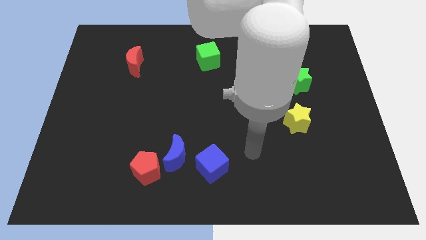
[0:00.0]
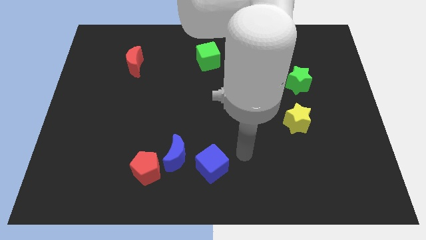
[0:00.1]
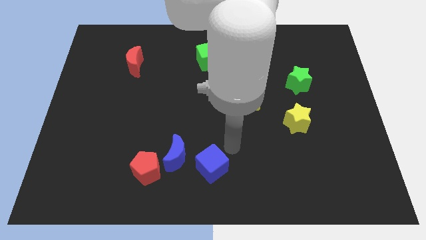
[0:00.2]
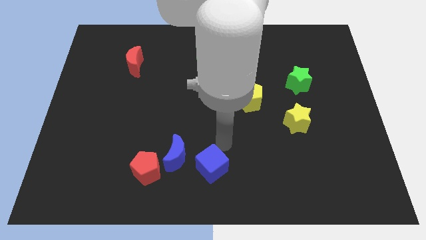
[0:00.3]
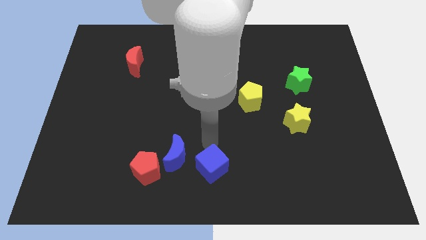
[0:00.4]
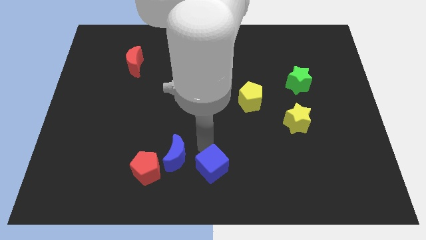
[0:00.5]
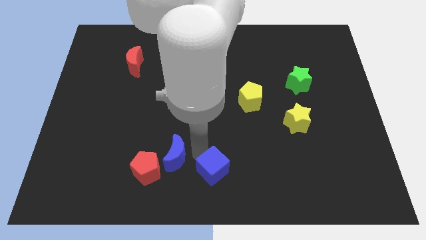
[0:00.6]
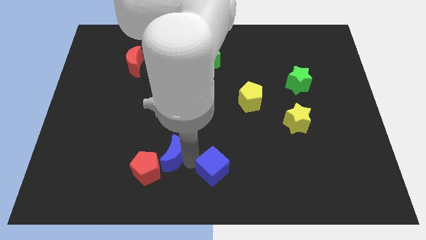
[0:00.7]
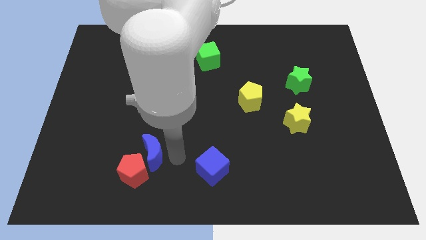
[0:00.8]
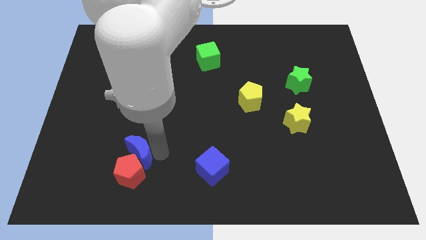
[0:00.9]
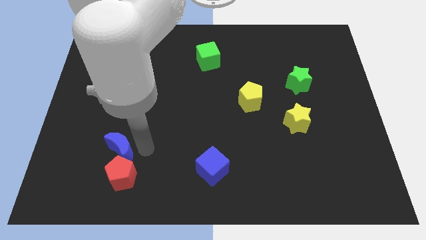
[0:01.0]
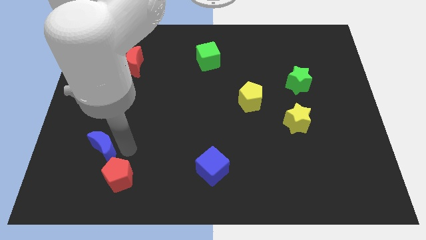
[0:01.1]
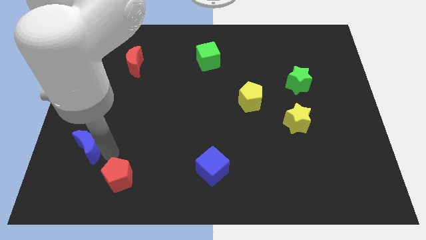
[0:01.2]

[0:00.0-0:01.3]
separate the red pentagon from the blue moon

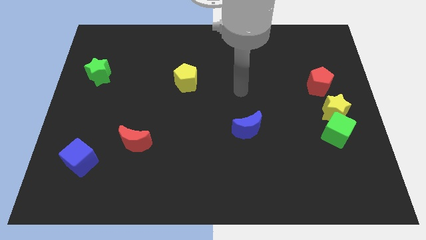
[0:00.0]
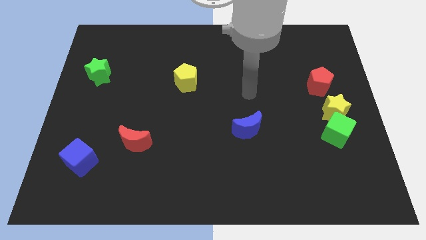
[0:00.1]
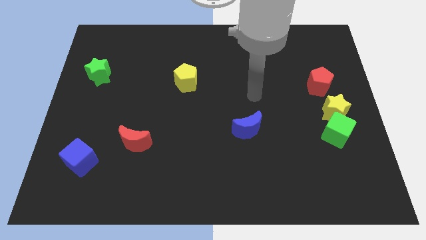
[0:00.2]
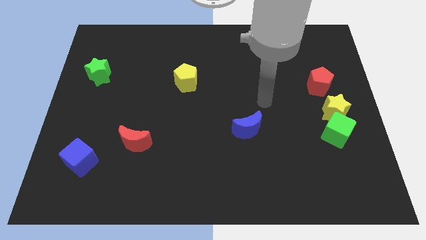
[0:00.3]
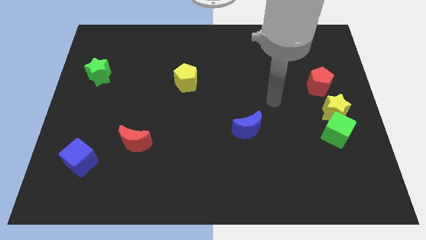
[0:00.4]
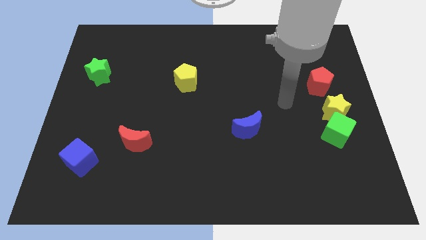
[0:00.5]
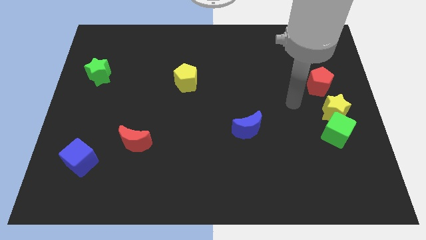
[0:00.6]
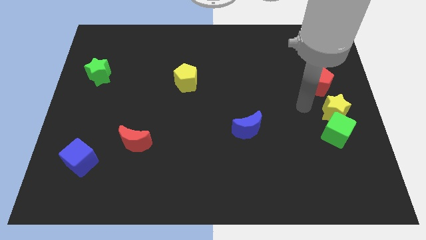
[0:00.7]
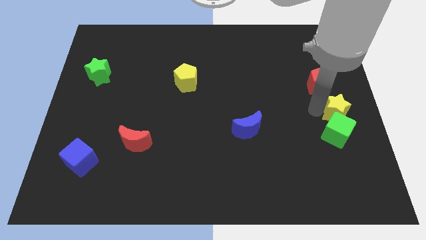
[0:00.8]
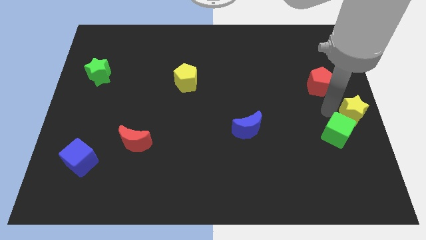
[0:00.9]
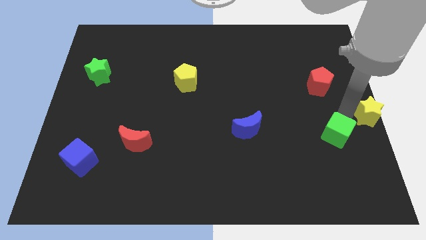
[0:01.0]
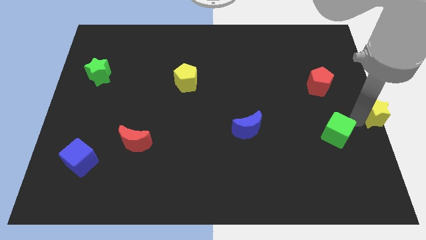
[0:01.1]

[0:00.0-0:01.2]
move the green cube away from the yellow star

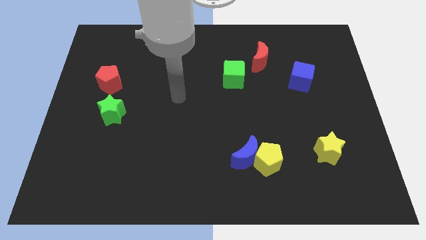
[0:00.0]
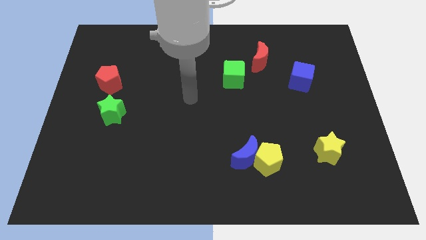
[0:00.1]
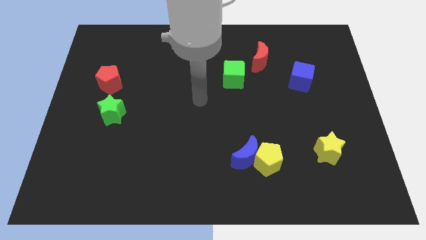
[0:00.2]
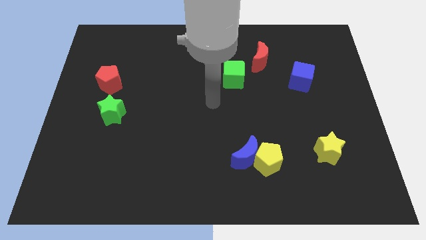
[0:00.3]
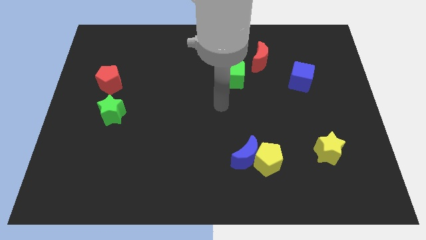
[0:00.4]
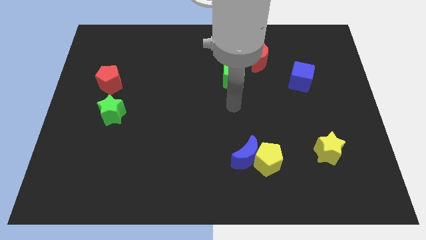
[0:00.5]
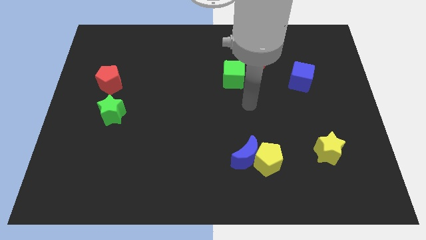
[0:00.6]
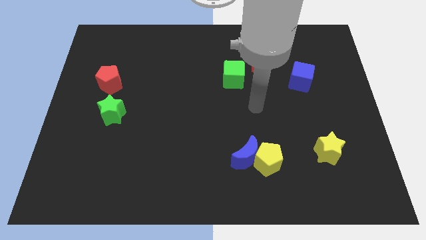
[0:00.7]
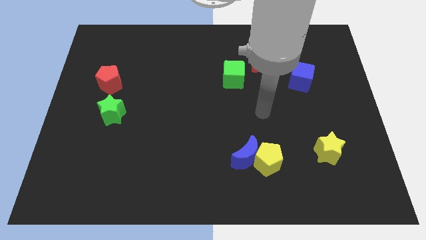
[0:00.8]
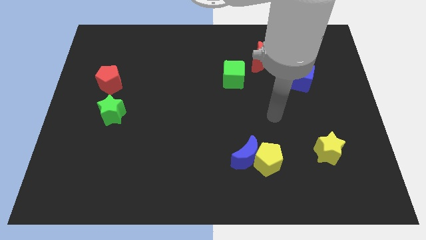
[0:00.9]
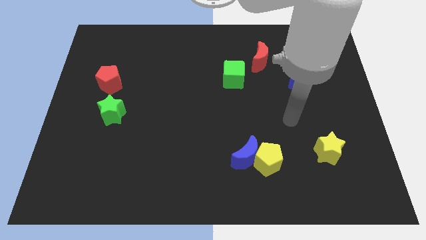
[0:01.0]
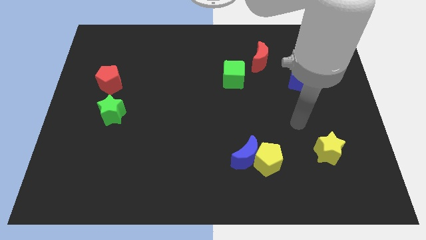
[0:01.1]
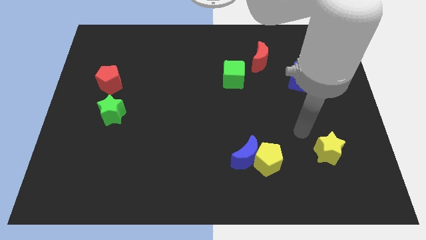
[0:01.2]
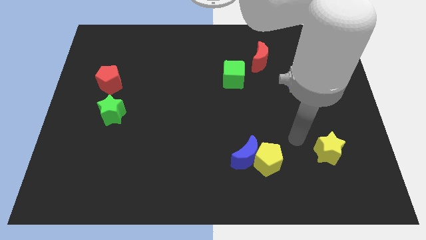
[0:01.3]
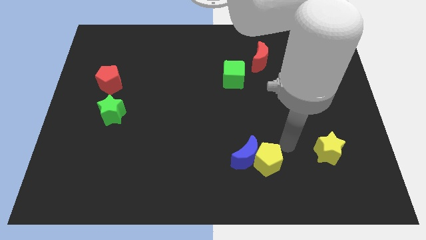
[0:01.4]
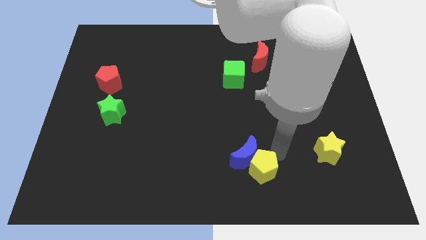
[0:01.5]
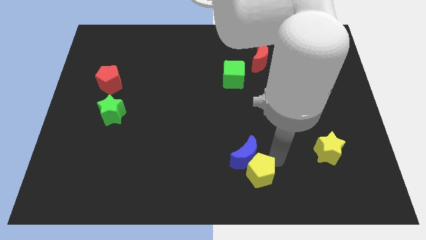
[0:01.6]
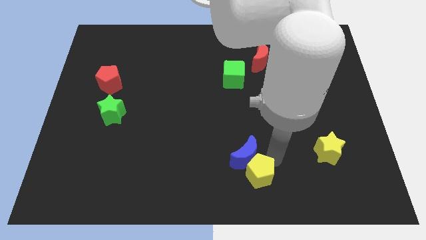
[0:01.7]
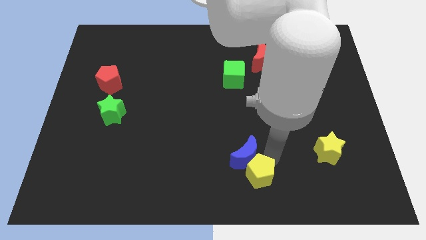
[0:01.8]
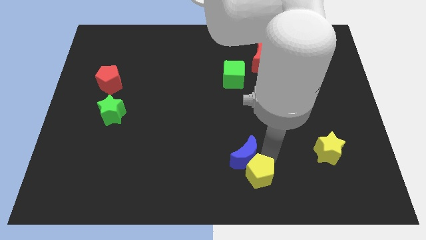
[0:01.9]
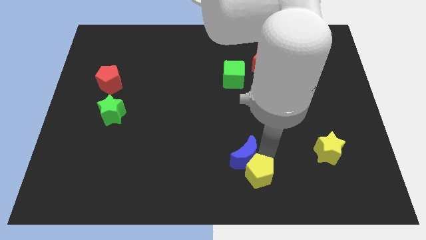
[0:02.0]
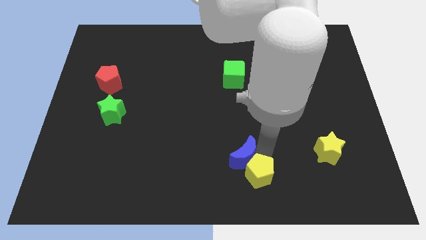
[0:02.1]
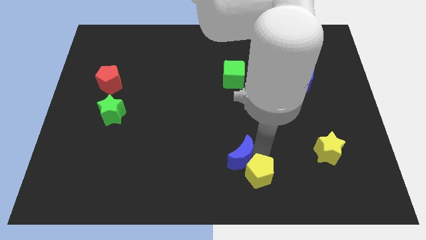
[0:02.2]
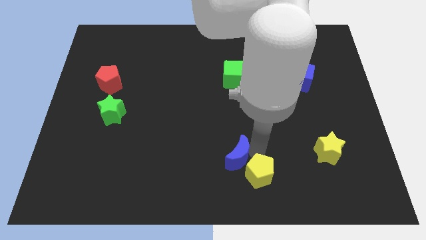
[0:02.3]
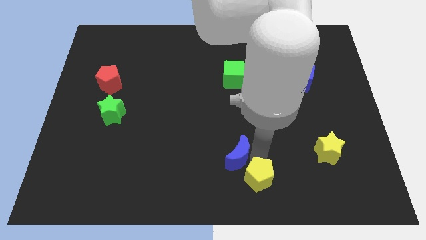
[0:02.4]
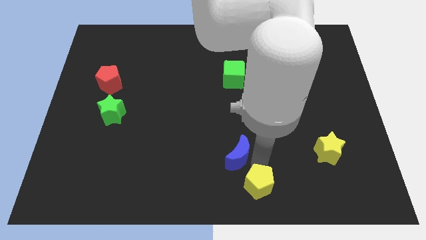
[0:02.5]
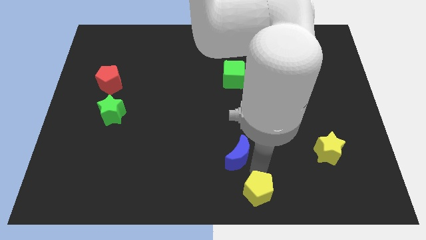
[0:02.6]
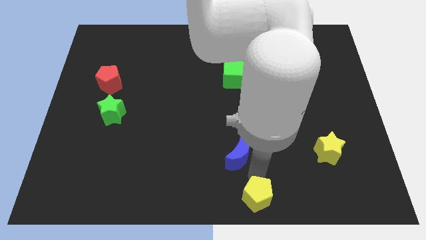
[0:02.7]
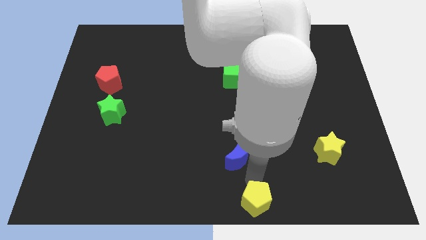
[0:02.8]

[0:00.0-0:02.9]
separate the blue moon from the yellow pentagon

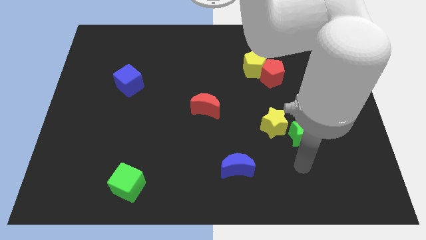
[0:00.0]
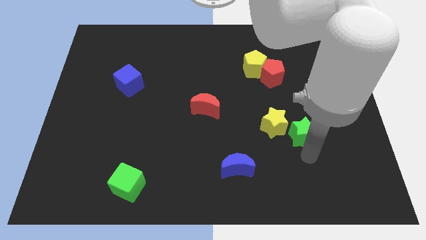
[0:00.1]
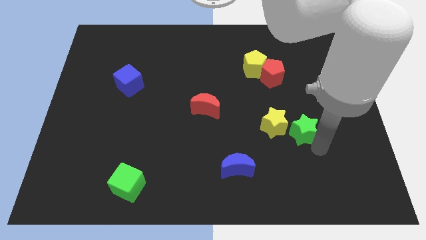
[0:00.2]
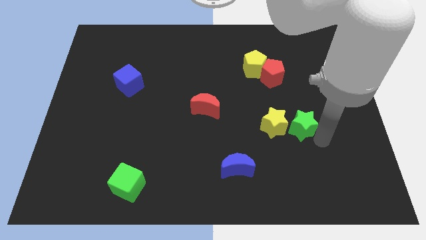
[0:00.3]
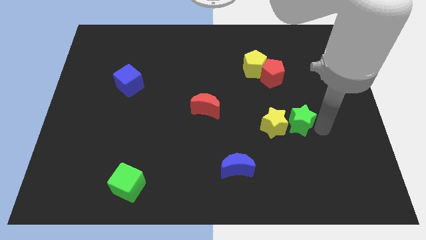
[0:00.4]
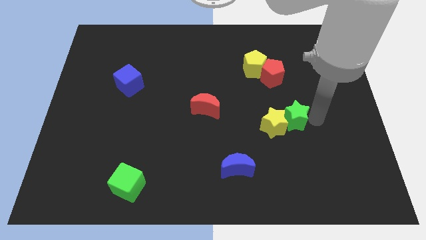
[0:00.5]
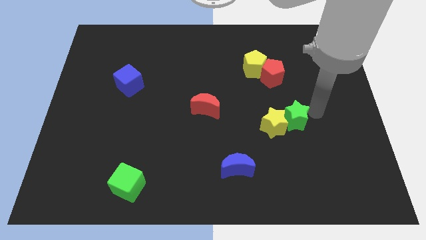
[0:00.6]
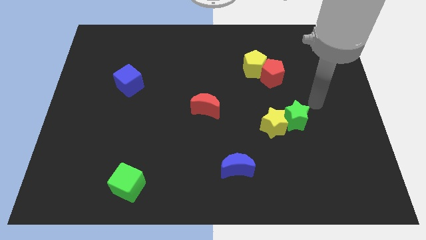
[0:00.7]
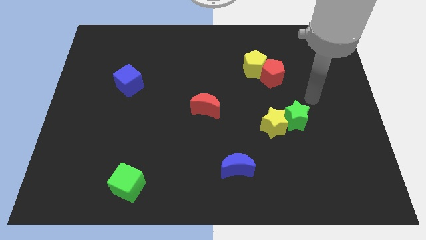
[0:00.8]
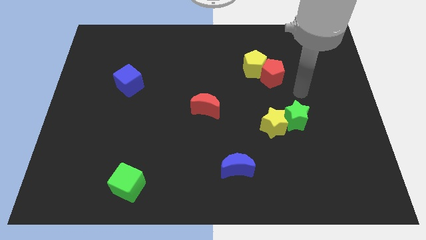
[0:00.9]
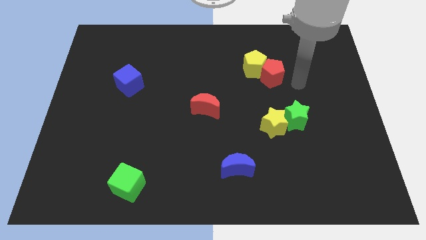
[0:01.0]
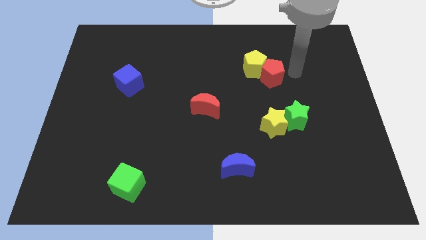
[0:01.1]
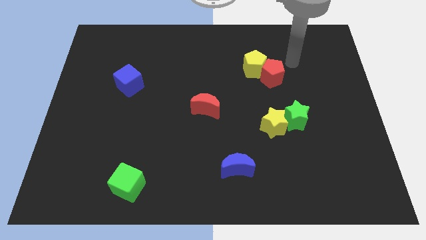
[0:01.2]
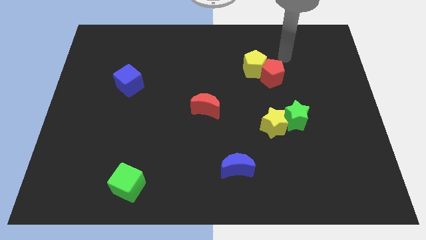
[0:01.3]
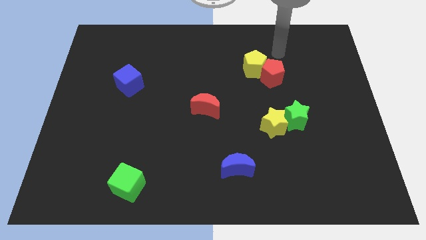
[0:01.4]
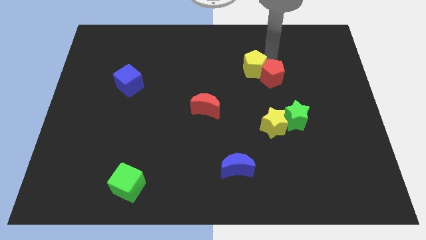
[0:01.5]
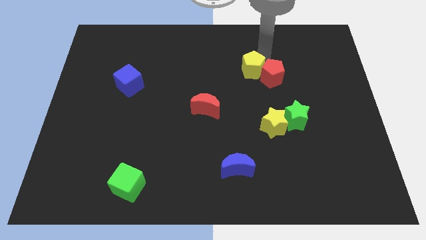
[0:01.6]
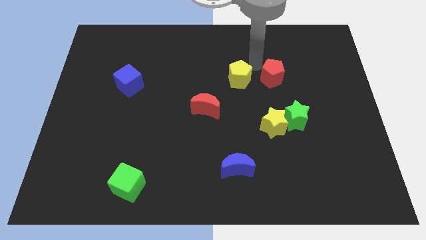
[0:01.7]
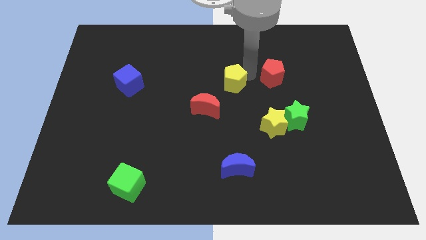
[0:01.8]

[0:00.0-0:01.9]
pull the red pentagon apart from the yellow pentagon

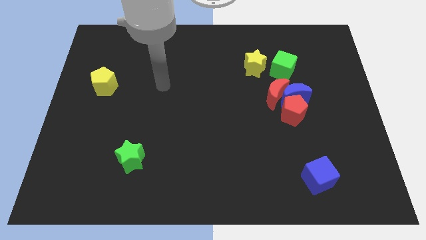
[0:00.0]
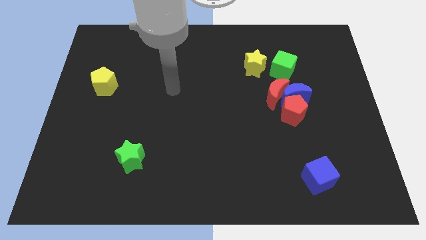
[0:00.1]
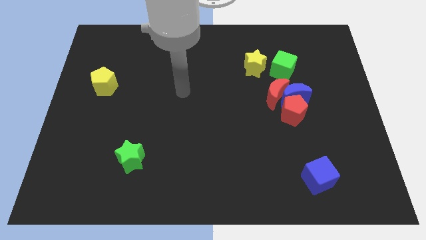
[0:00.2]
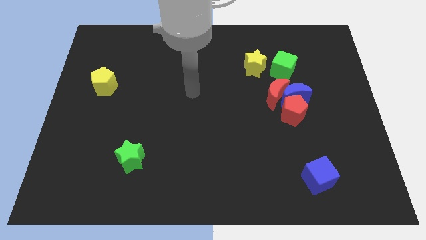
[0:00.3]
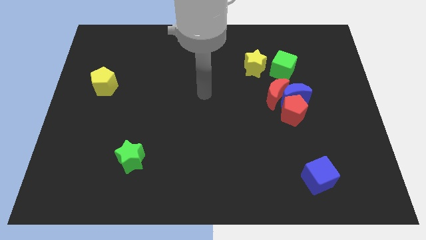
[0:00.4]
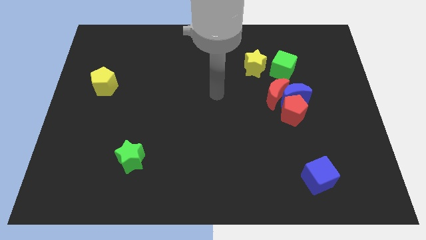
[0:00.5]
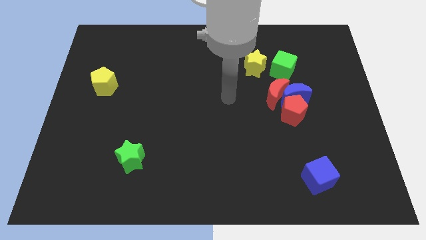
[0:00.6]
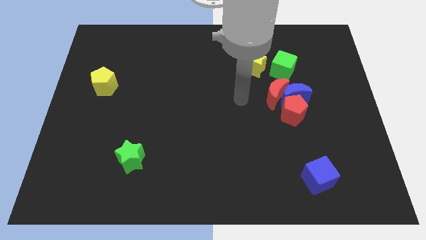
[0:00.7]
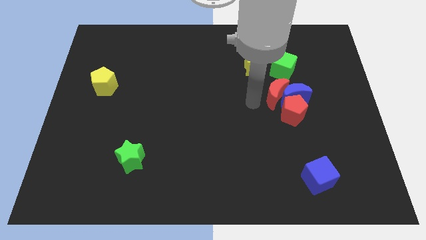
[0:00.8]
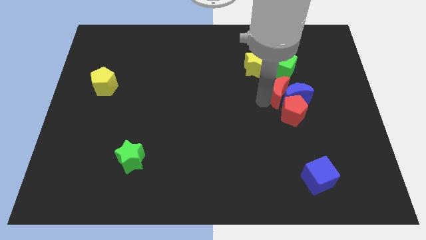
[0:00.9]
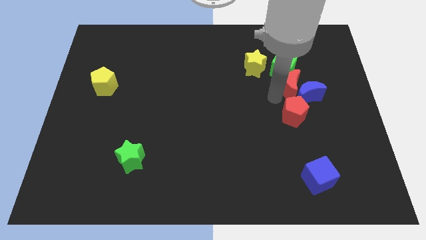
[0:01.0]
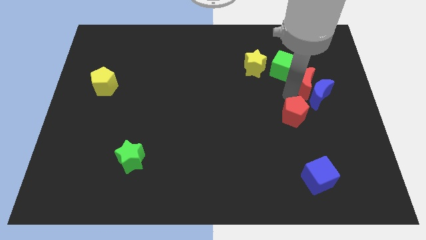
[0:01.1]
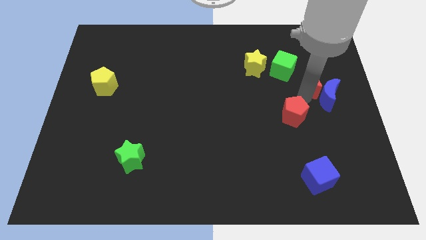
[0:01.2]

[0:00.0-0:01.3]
separate the red pentagon from the blue moon and red moon

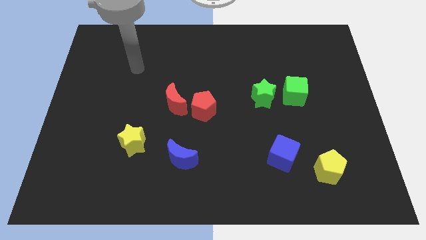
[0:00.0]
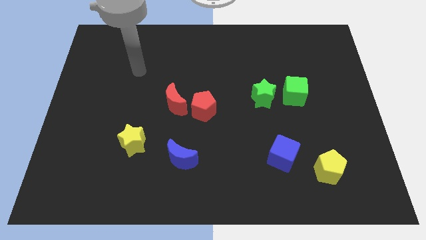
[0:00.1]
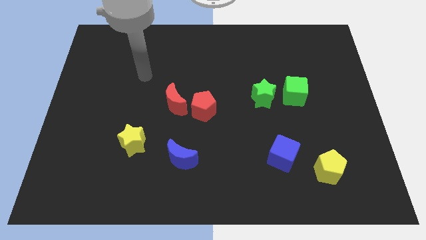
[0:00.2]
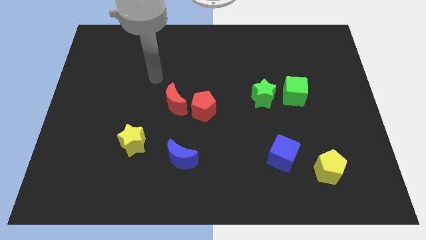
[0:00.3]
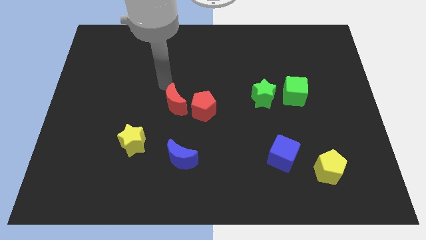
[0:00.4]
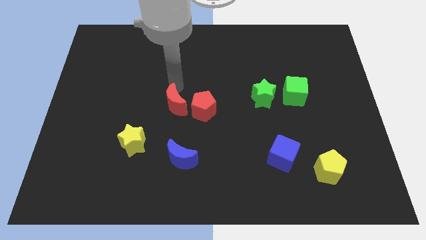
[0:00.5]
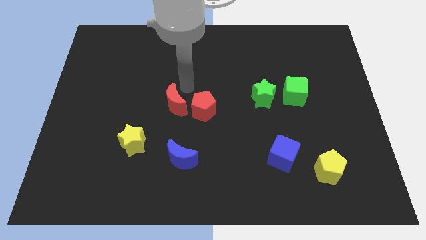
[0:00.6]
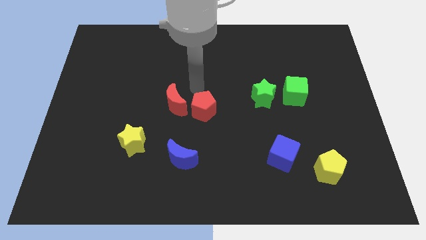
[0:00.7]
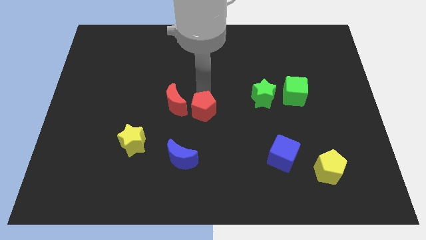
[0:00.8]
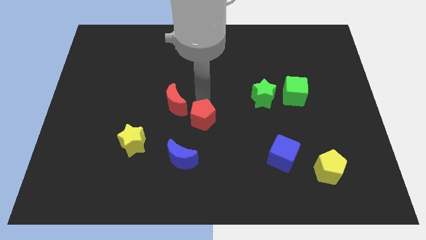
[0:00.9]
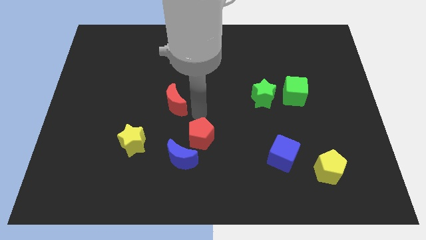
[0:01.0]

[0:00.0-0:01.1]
pull the red moon apart from the red pentagon
